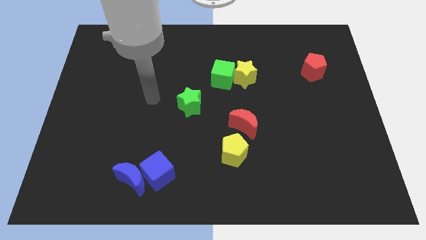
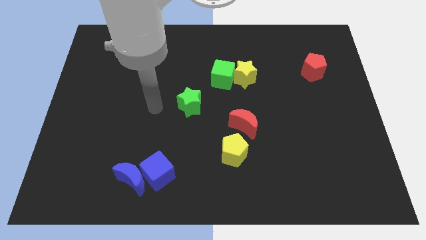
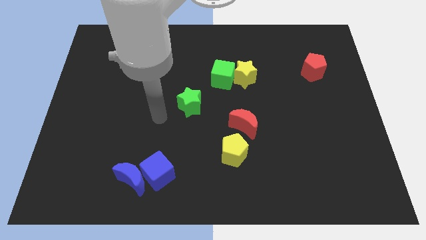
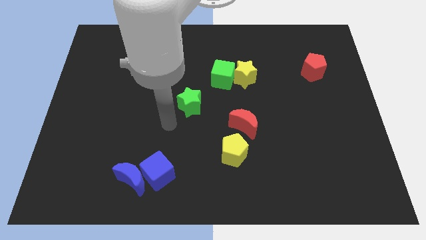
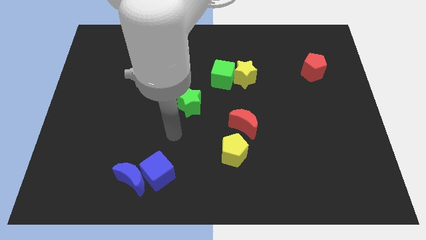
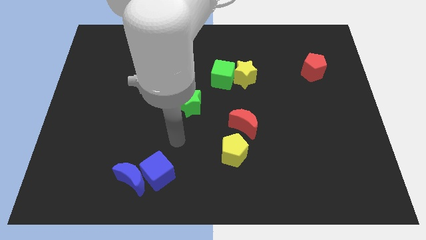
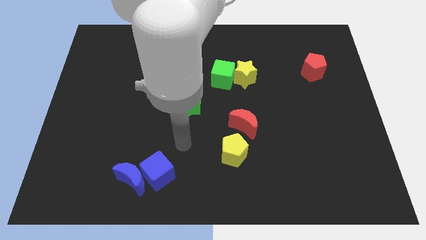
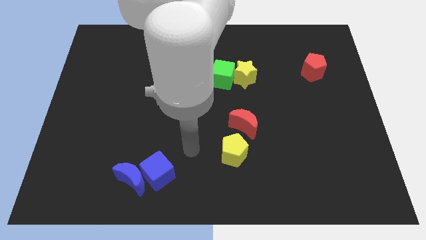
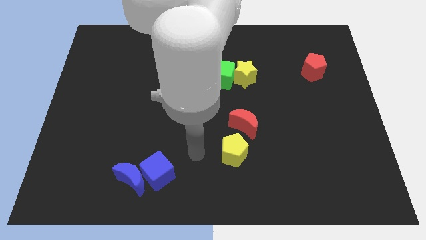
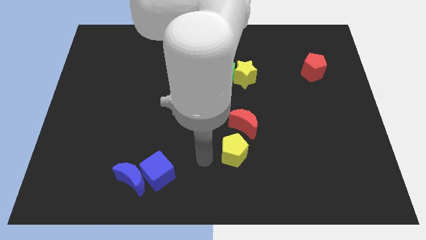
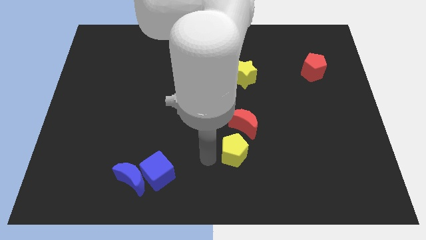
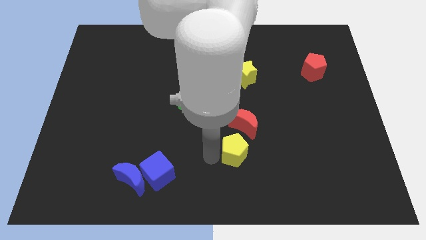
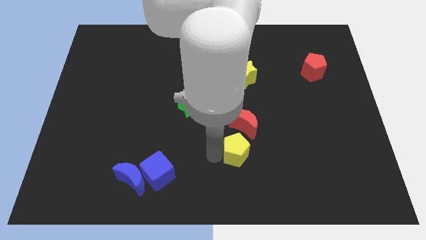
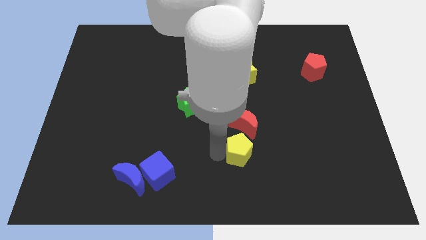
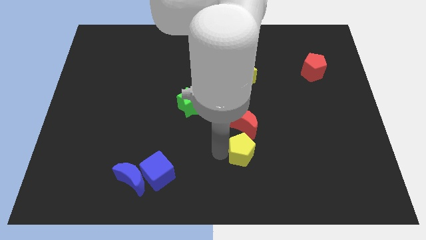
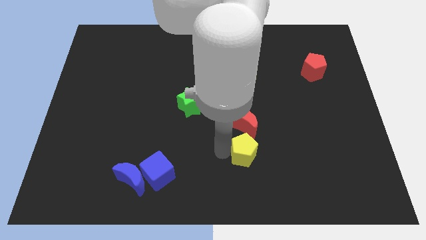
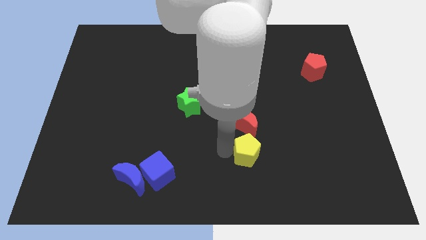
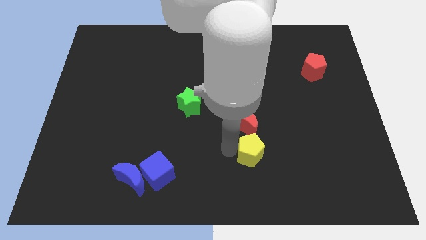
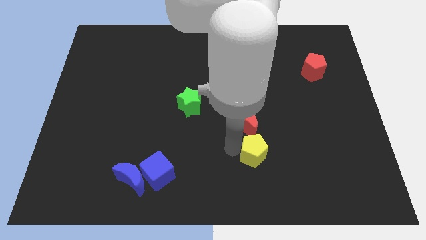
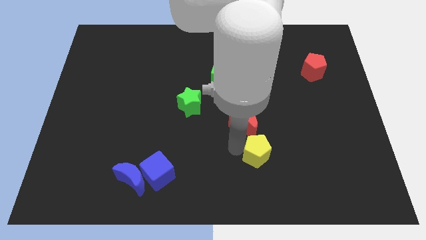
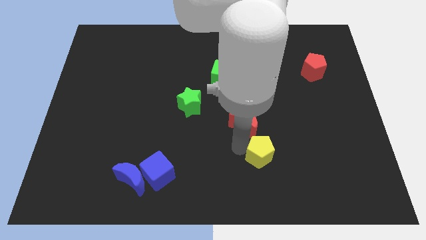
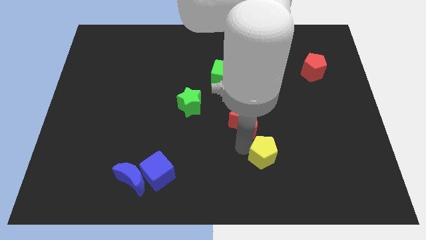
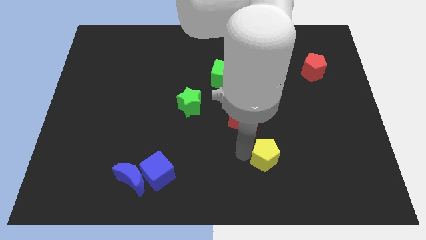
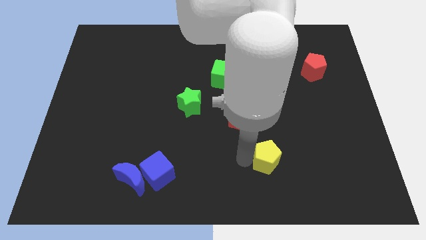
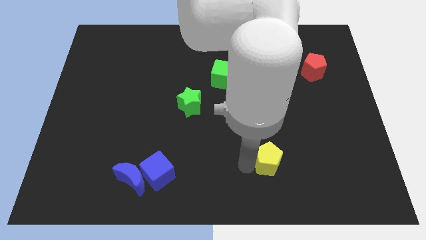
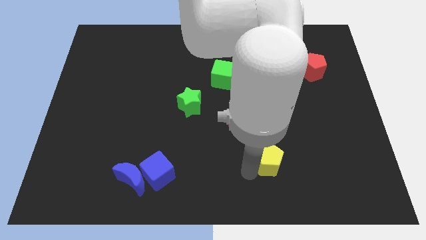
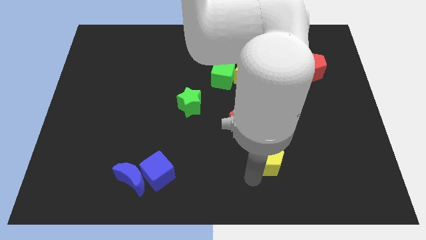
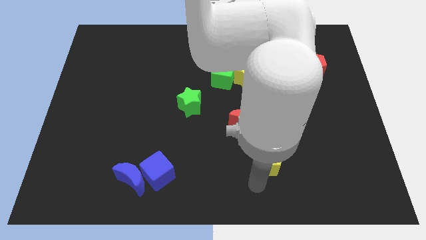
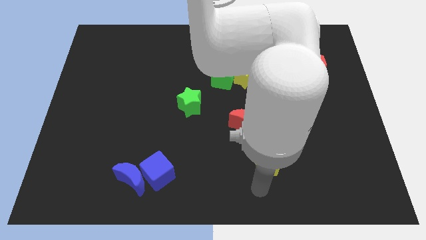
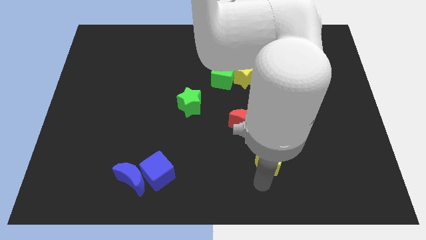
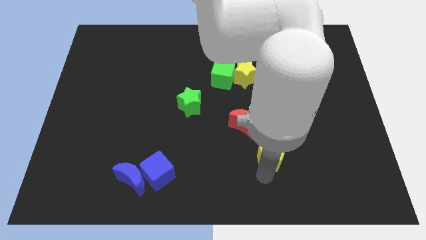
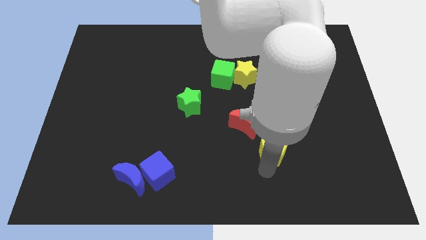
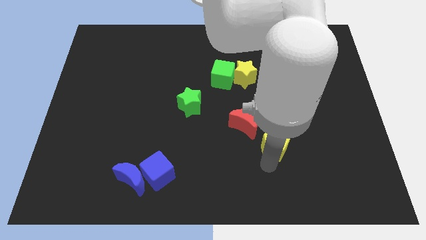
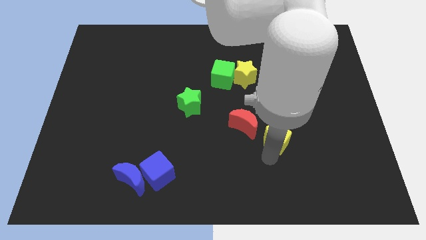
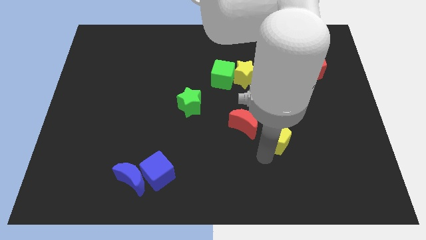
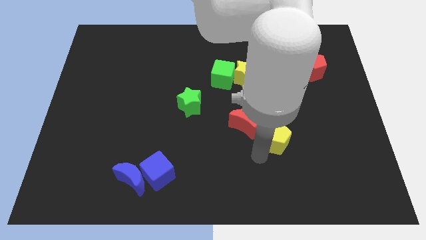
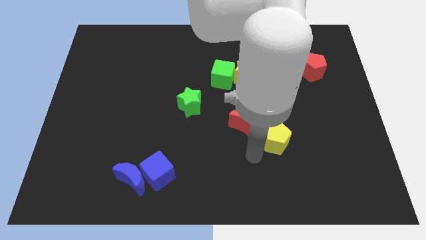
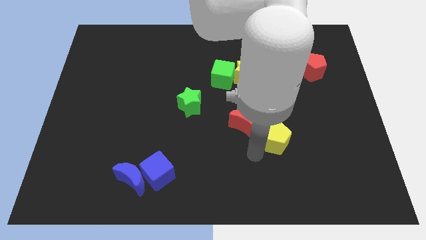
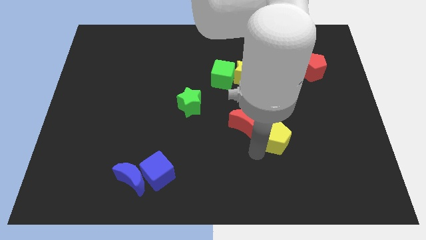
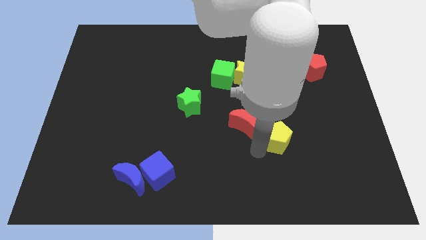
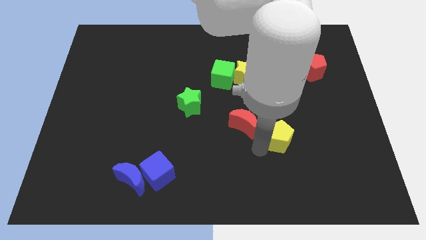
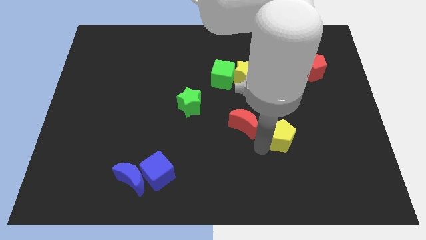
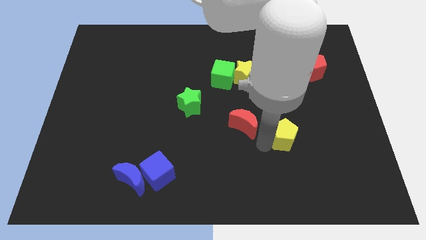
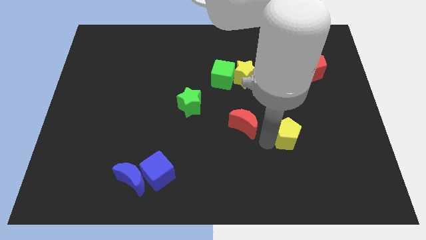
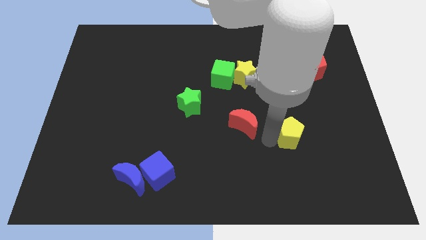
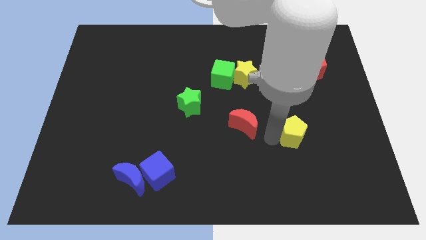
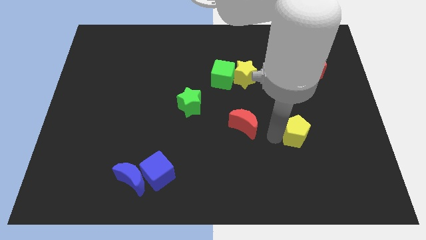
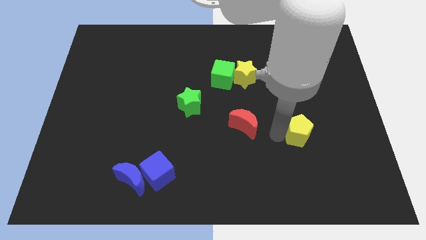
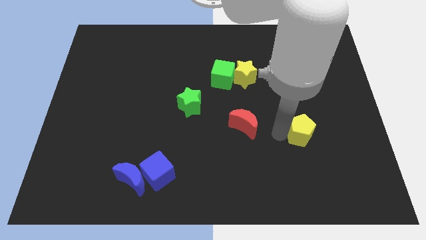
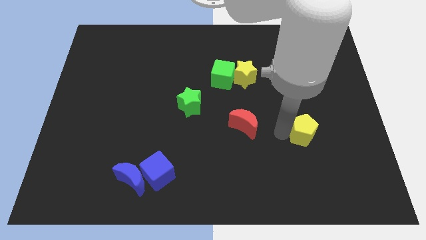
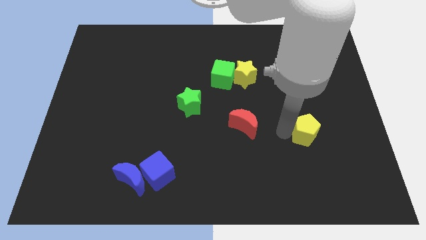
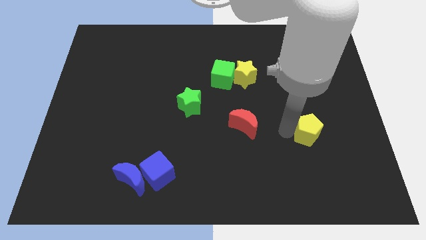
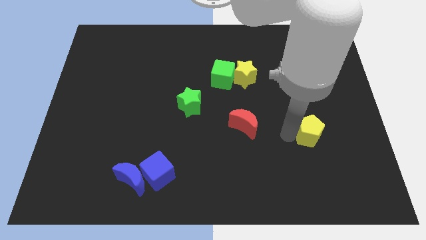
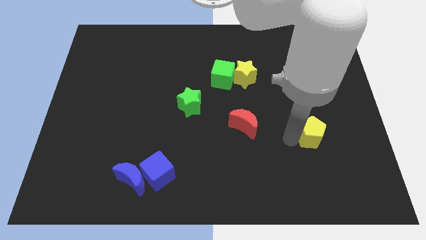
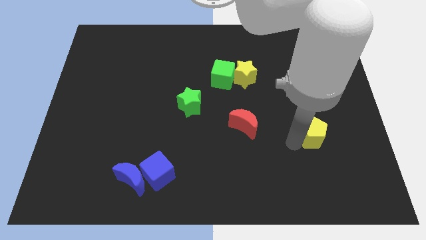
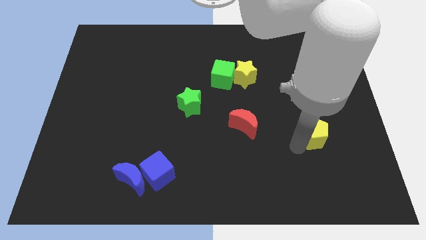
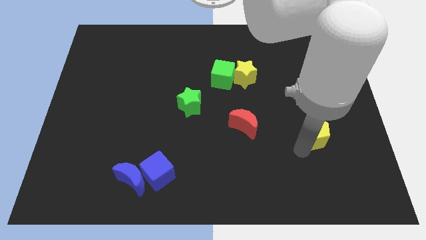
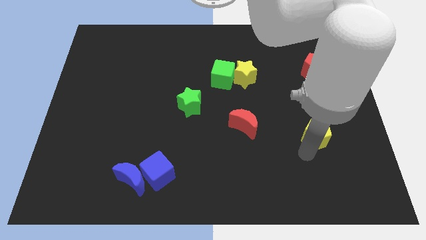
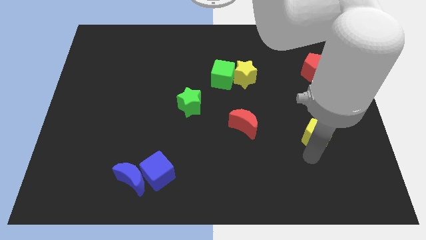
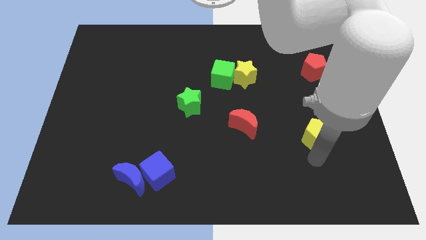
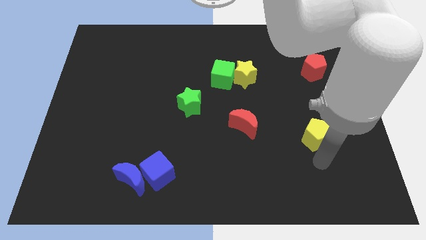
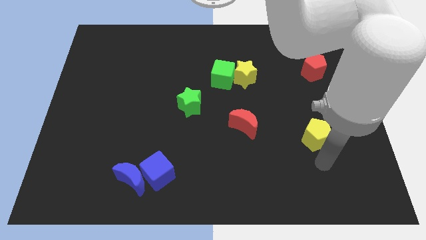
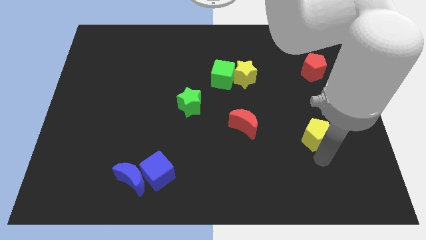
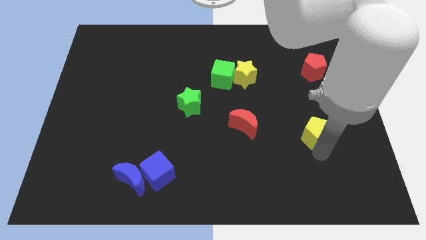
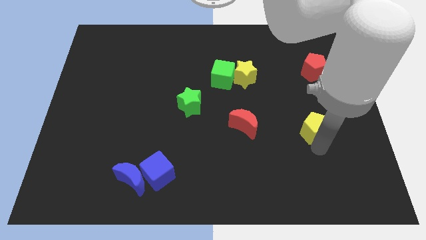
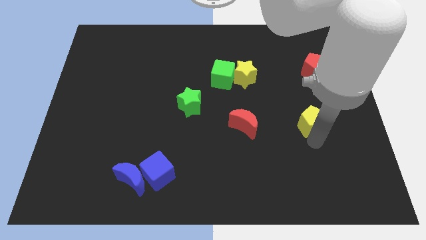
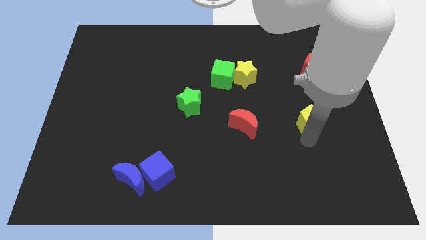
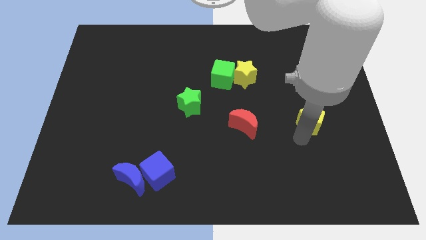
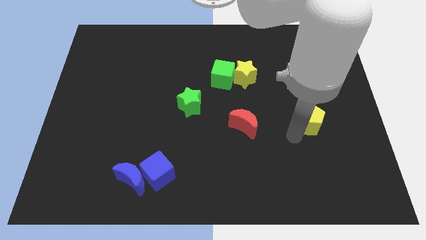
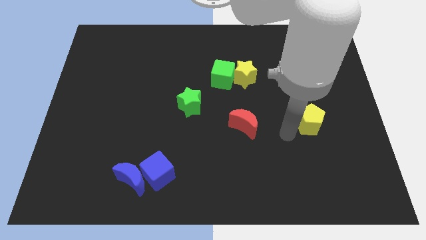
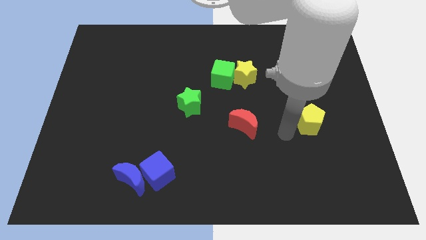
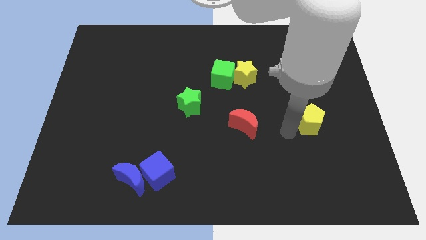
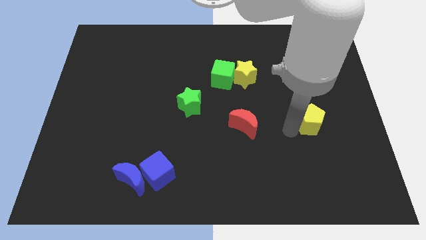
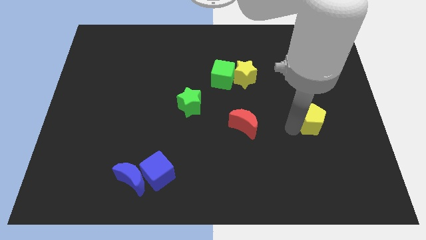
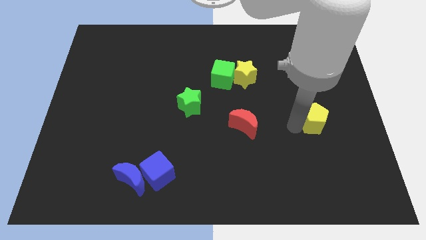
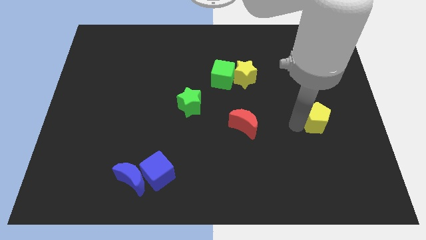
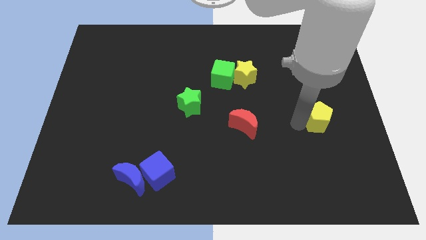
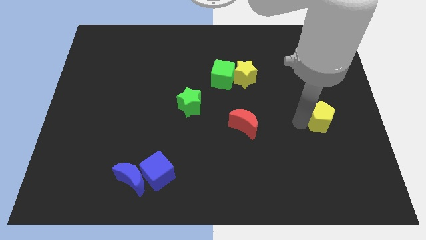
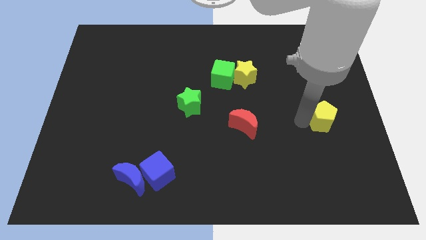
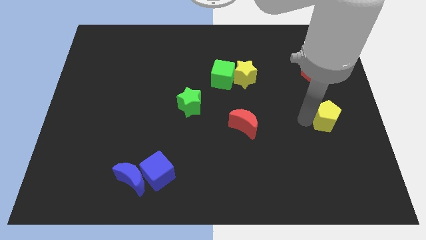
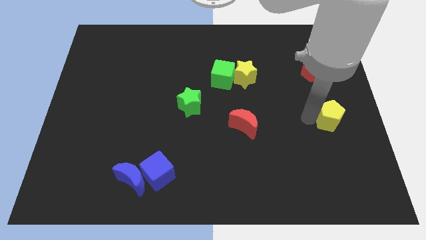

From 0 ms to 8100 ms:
slide the yellow pentagon to the right side
